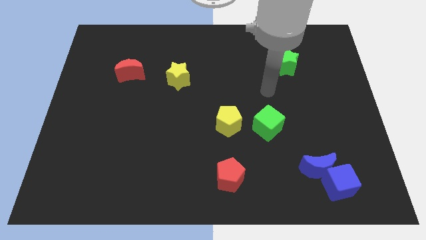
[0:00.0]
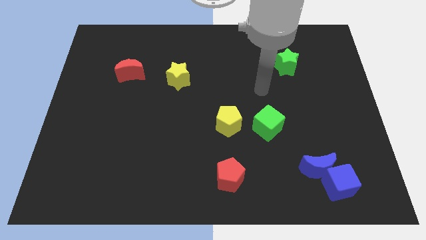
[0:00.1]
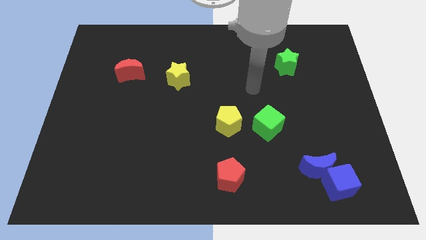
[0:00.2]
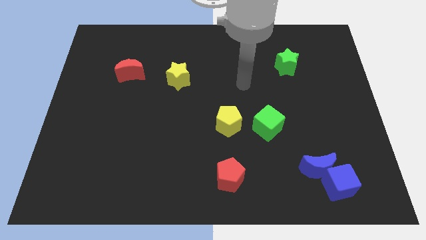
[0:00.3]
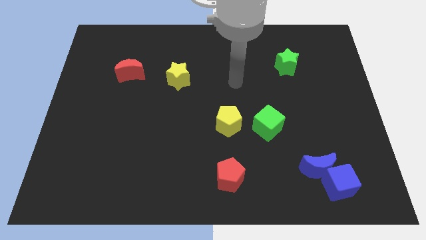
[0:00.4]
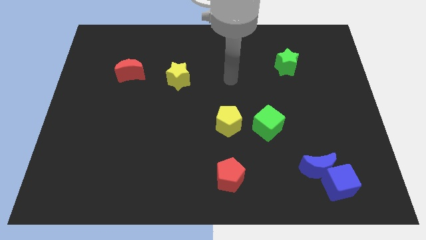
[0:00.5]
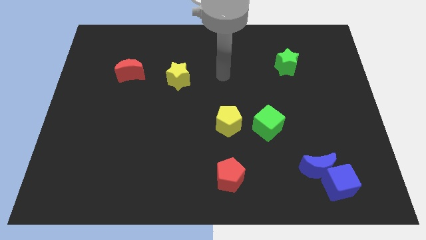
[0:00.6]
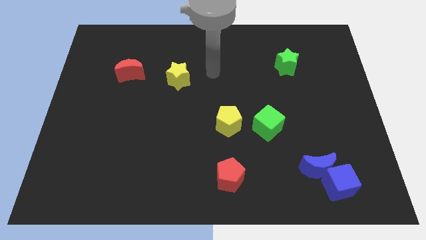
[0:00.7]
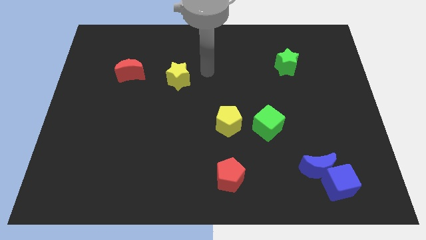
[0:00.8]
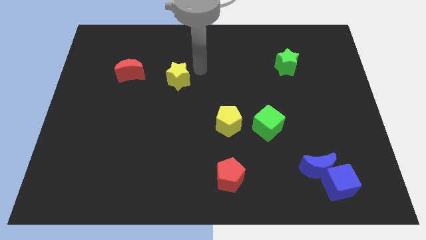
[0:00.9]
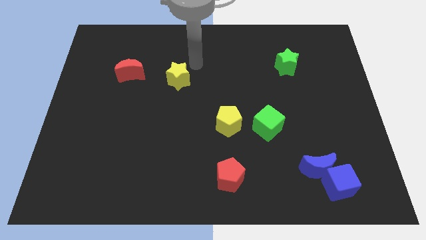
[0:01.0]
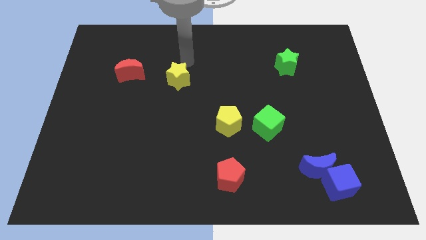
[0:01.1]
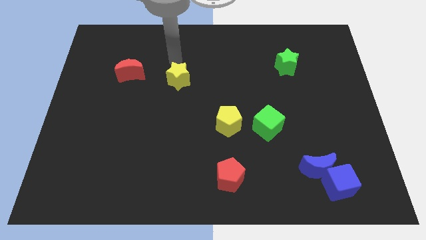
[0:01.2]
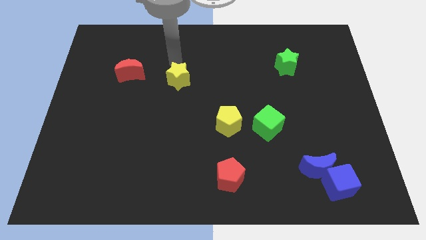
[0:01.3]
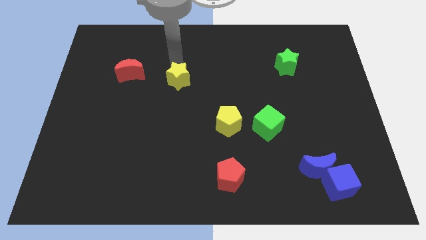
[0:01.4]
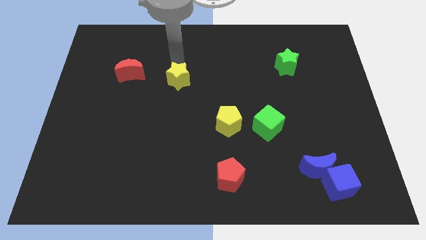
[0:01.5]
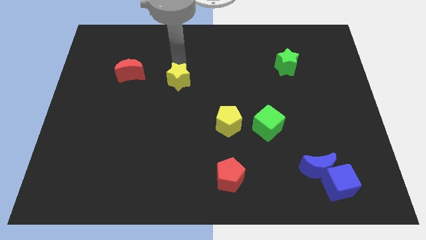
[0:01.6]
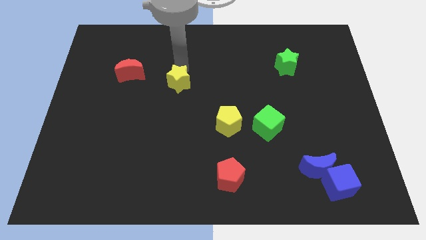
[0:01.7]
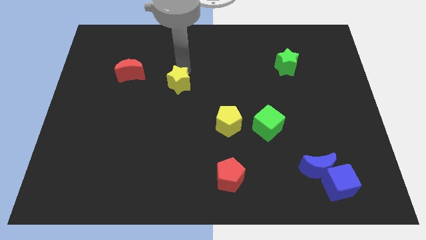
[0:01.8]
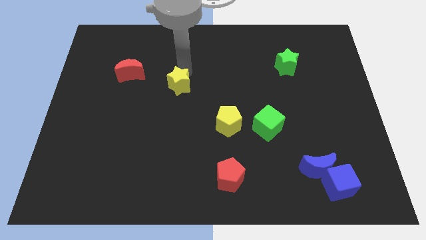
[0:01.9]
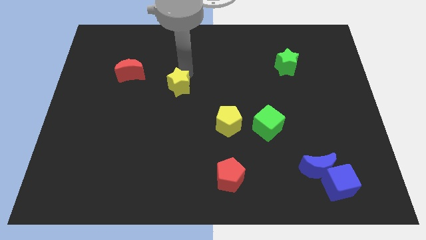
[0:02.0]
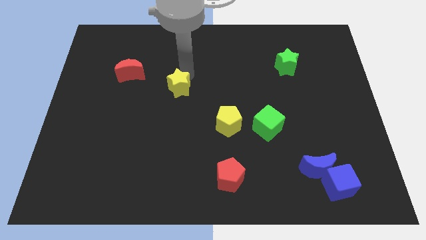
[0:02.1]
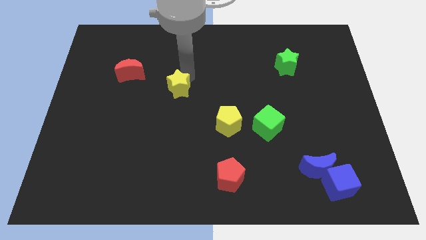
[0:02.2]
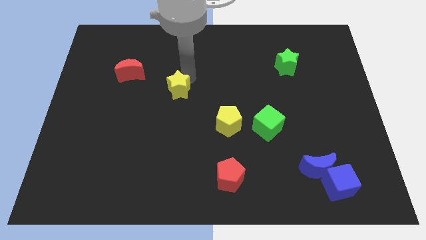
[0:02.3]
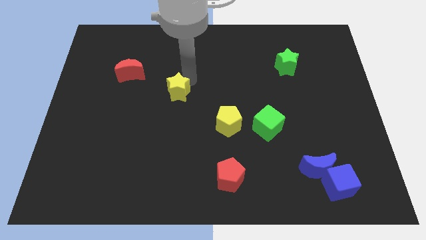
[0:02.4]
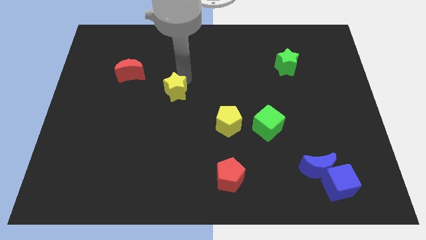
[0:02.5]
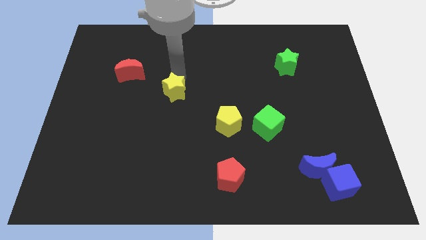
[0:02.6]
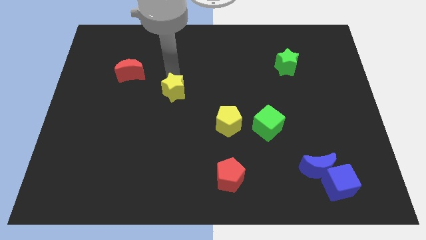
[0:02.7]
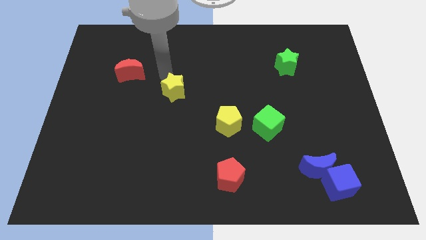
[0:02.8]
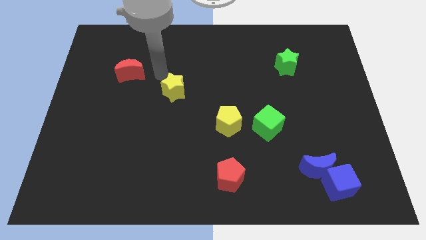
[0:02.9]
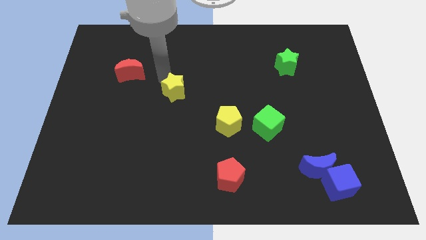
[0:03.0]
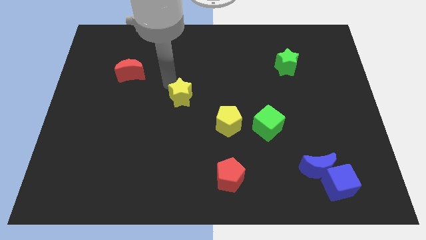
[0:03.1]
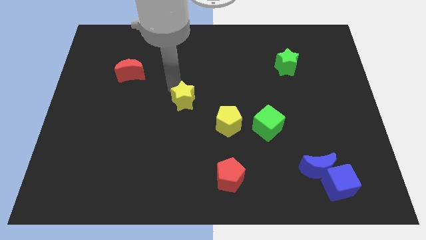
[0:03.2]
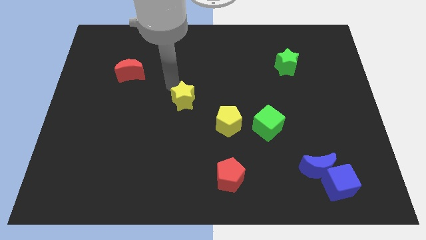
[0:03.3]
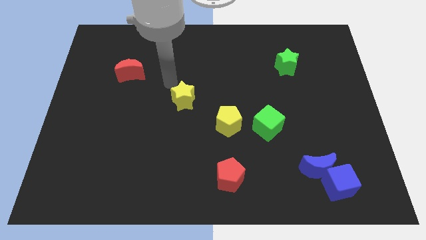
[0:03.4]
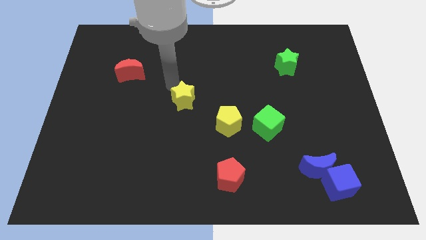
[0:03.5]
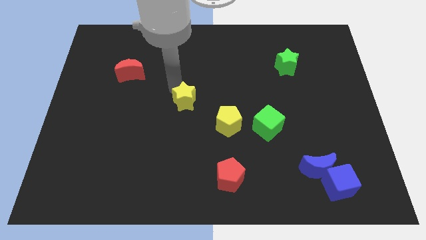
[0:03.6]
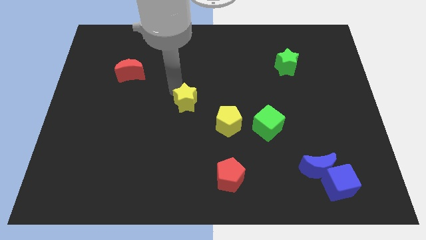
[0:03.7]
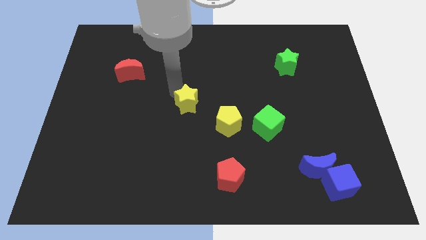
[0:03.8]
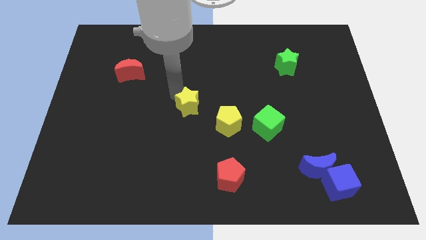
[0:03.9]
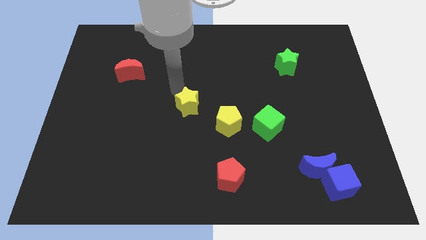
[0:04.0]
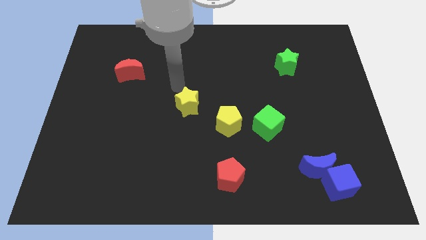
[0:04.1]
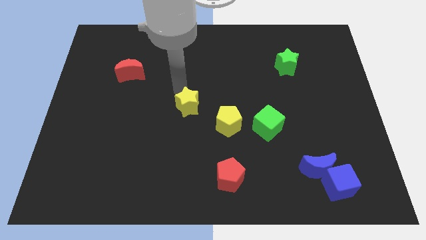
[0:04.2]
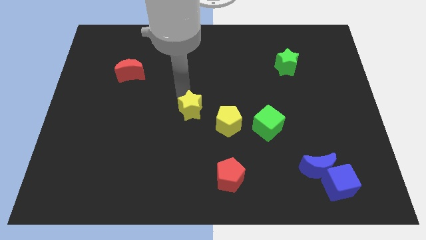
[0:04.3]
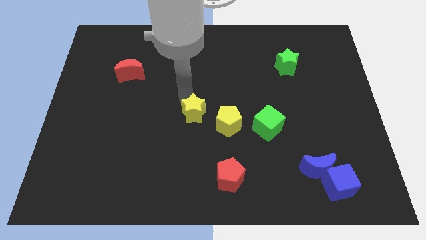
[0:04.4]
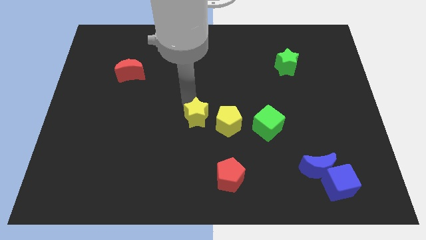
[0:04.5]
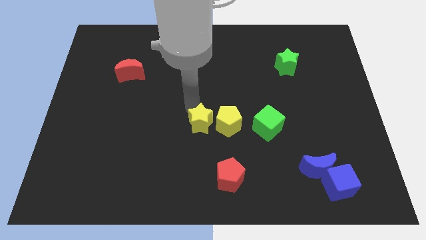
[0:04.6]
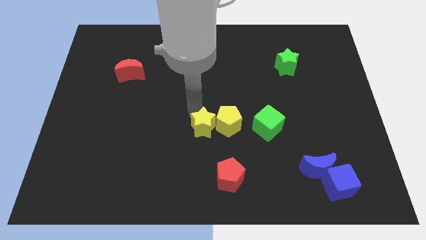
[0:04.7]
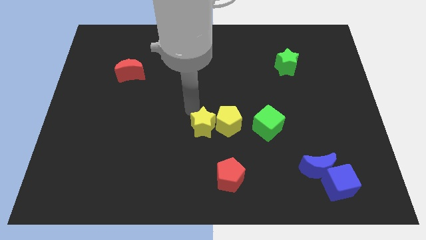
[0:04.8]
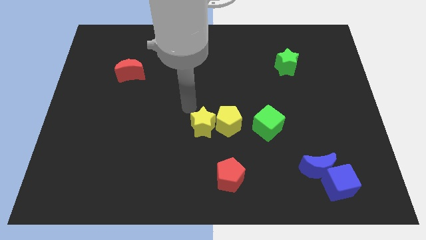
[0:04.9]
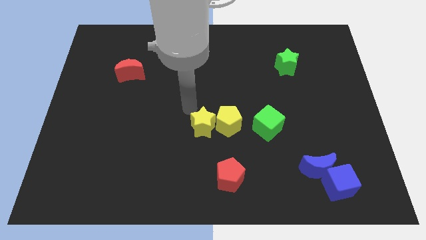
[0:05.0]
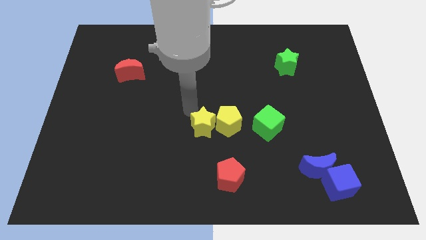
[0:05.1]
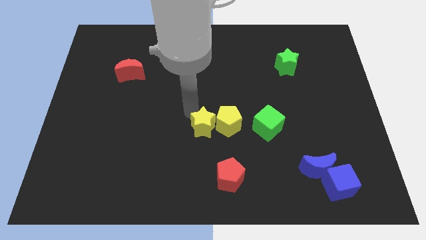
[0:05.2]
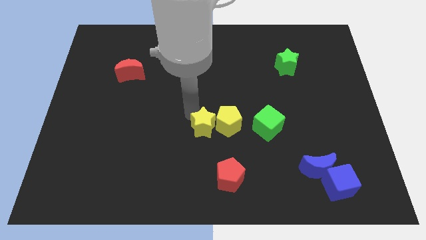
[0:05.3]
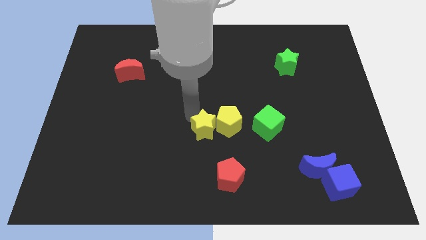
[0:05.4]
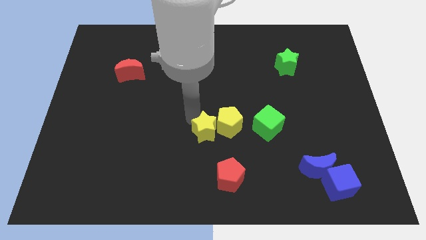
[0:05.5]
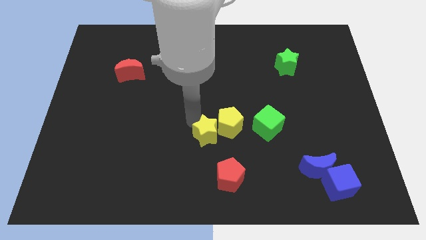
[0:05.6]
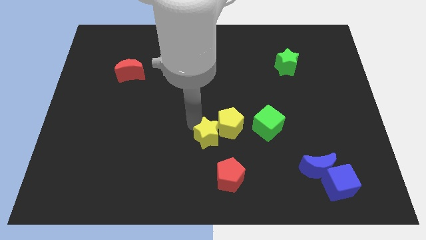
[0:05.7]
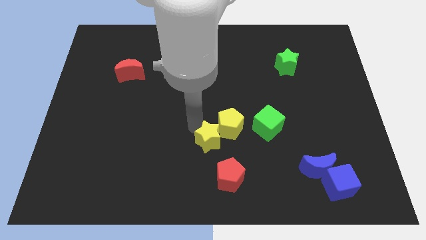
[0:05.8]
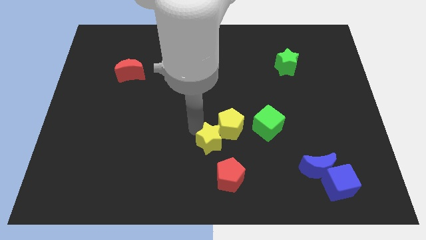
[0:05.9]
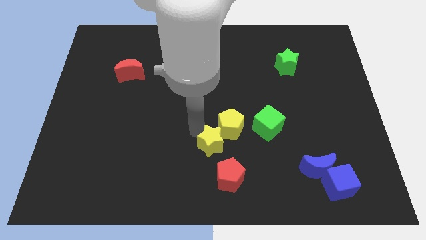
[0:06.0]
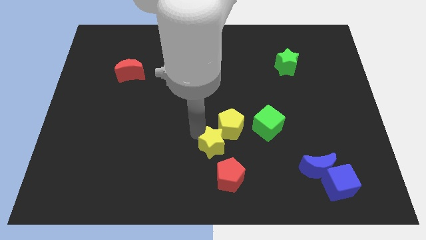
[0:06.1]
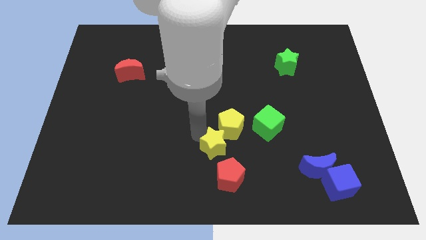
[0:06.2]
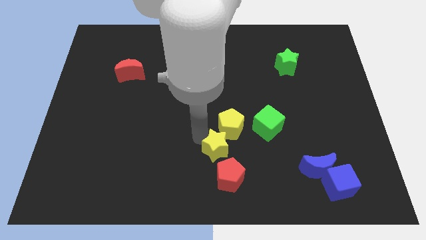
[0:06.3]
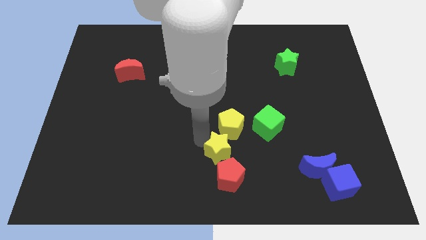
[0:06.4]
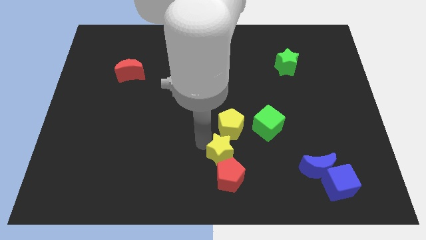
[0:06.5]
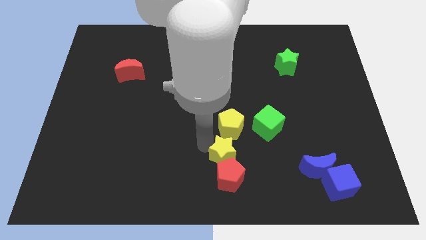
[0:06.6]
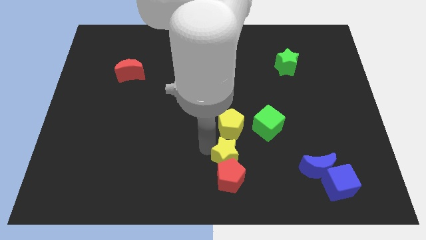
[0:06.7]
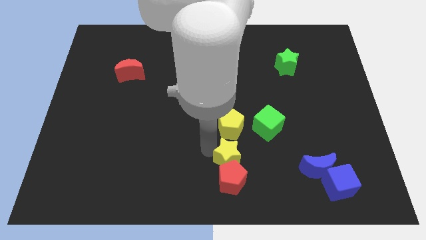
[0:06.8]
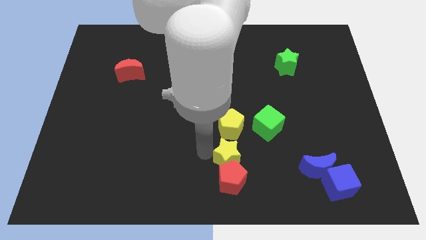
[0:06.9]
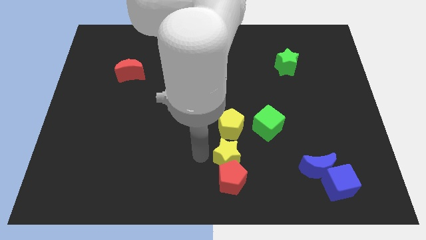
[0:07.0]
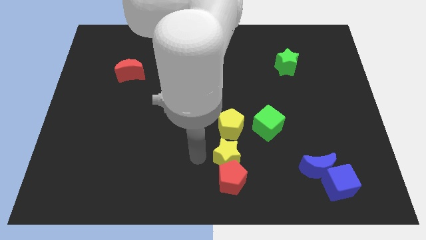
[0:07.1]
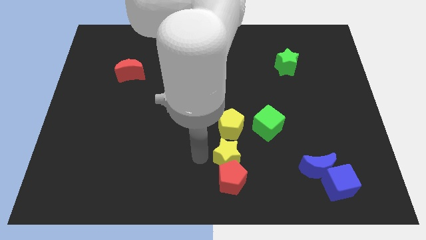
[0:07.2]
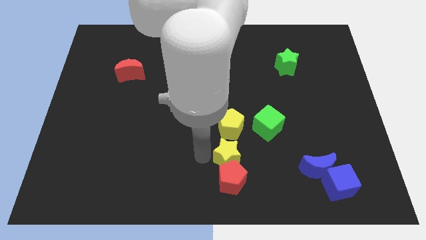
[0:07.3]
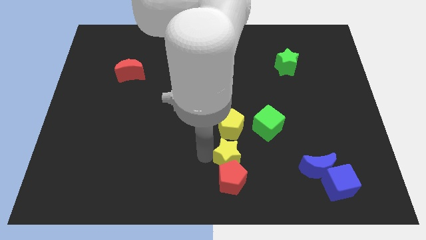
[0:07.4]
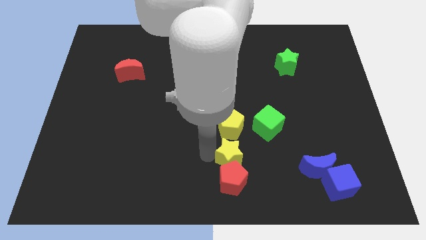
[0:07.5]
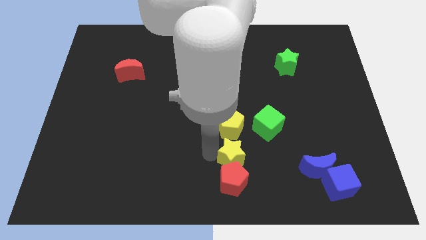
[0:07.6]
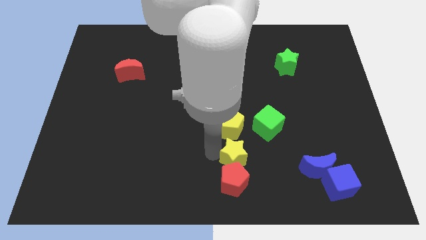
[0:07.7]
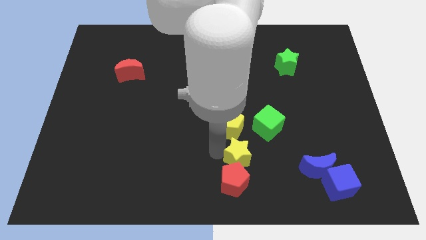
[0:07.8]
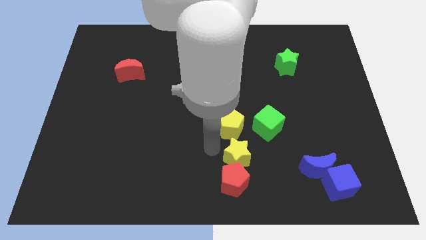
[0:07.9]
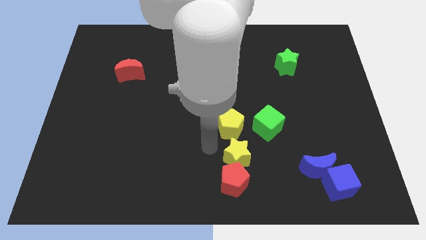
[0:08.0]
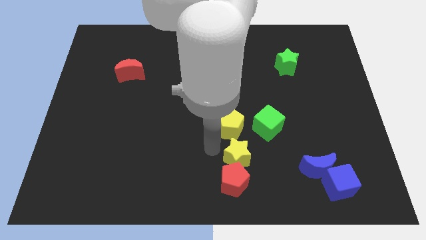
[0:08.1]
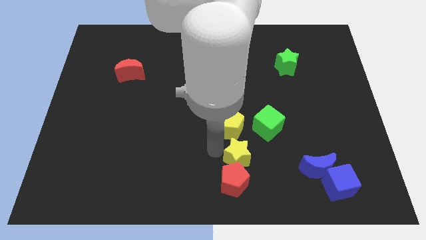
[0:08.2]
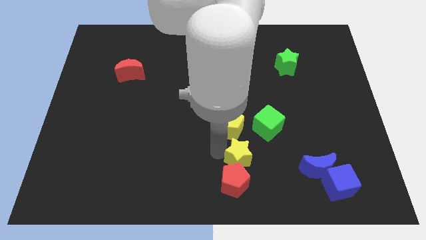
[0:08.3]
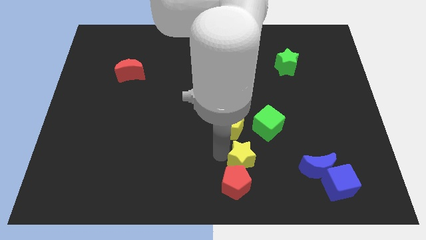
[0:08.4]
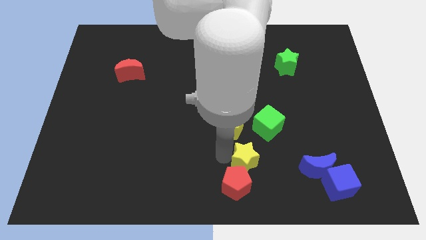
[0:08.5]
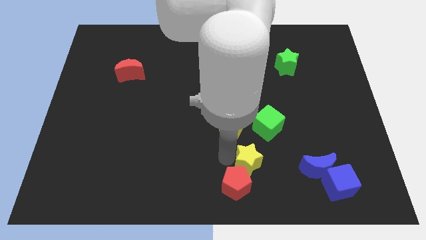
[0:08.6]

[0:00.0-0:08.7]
push the yellow star to the bottom of the green cube
